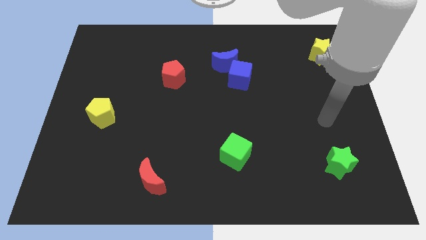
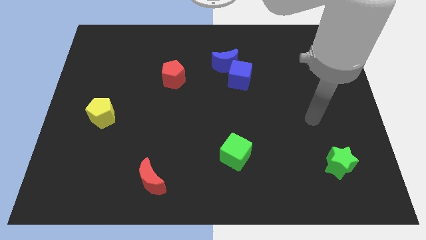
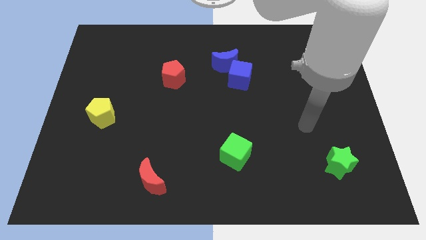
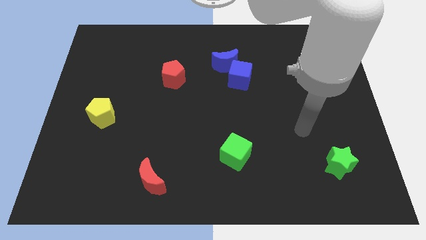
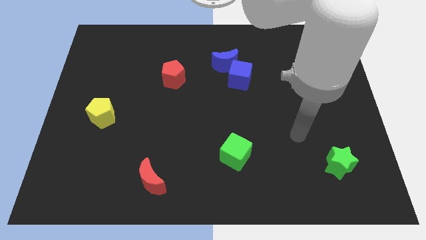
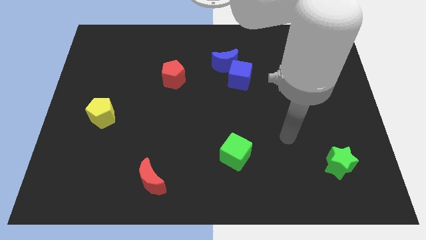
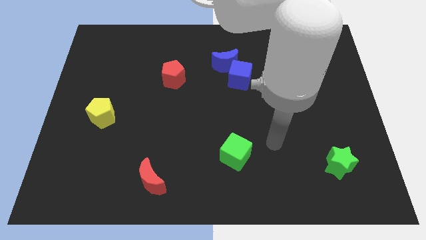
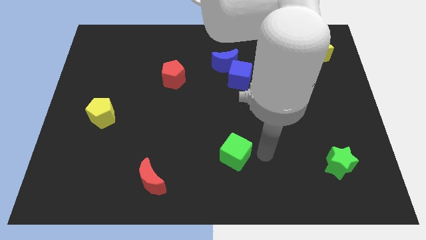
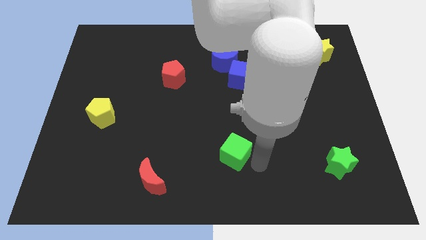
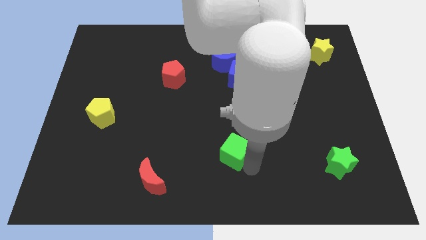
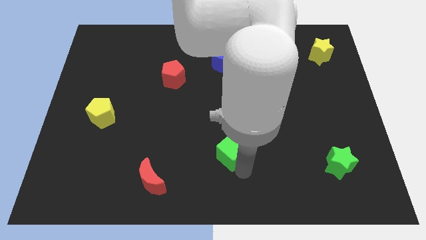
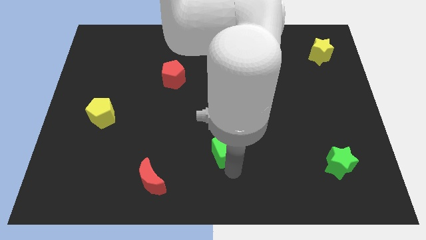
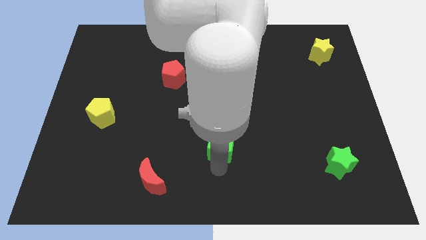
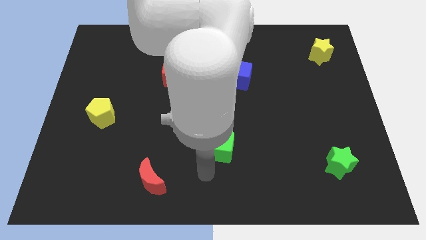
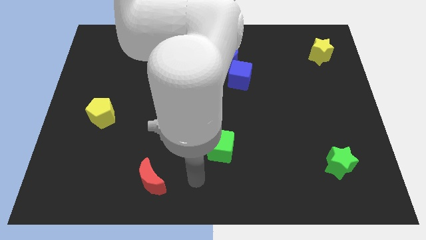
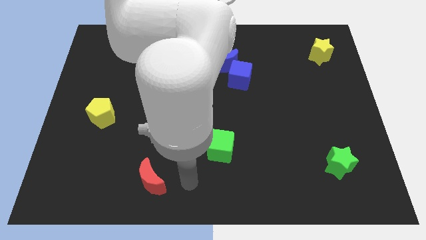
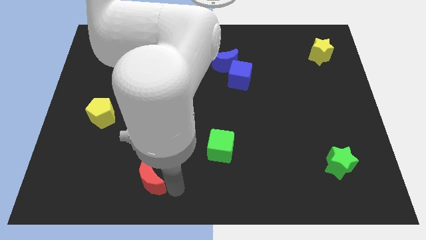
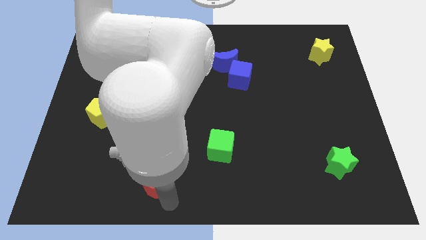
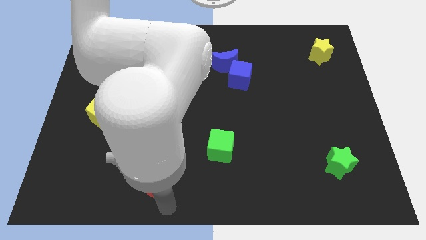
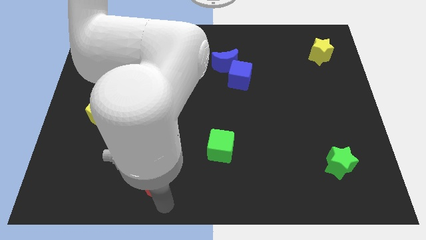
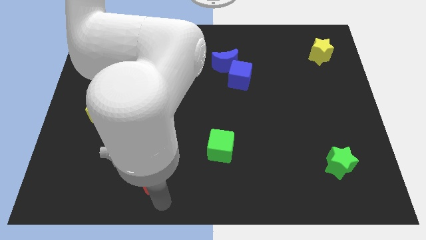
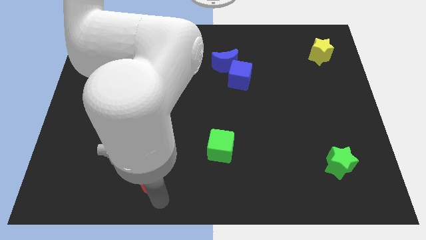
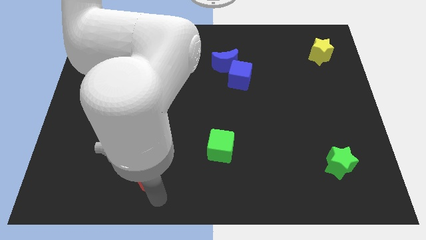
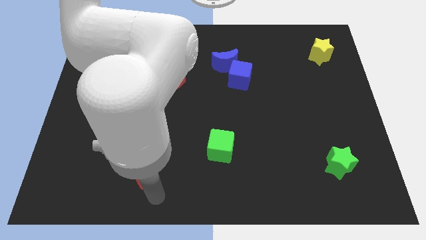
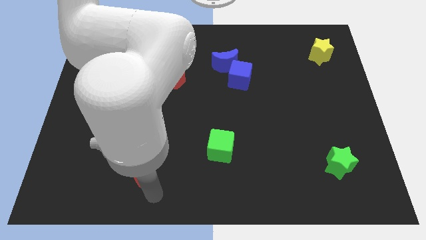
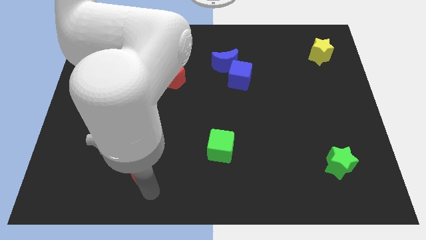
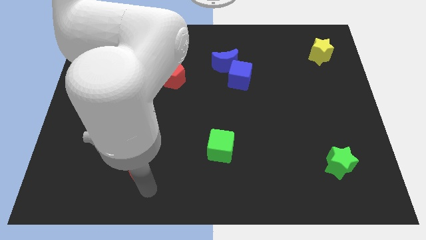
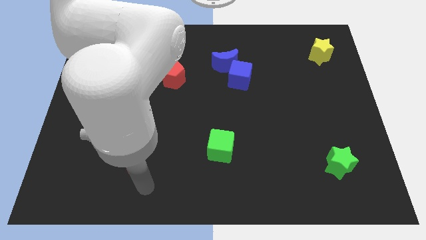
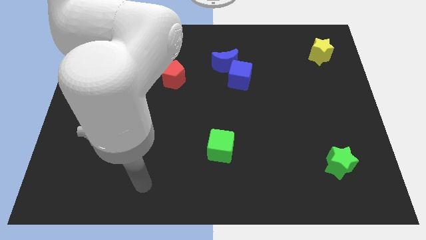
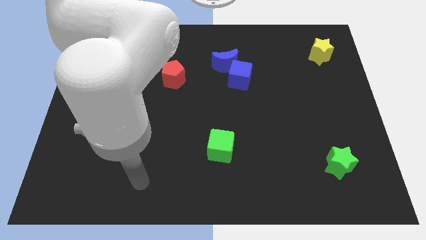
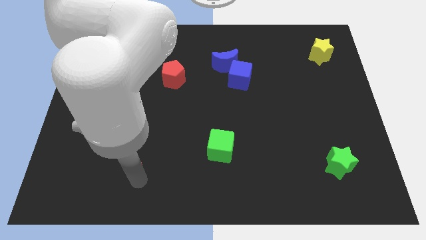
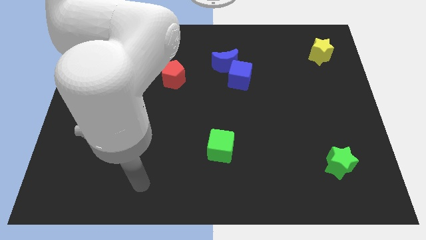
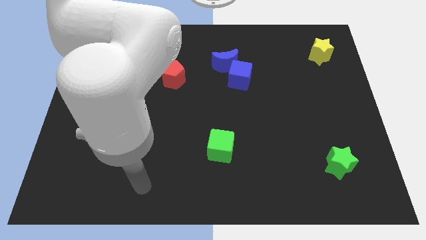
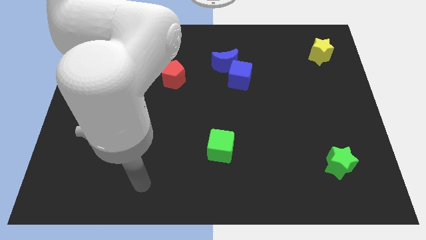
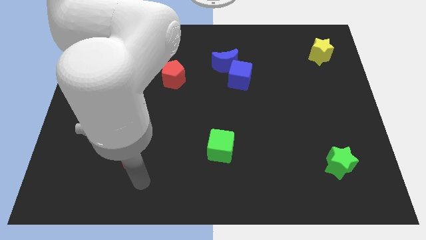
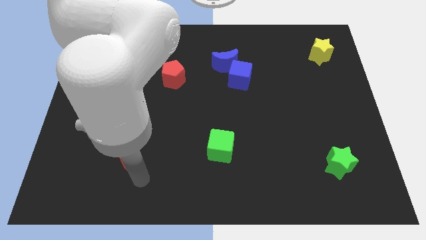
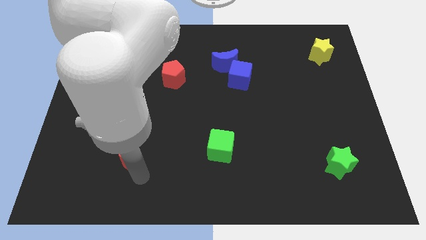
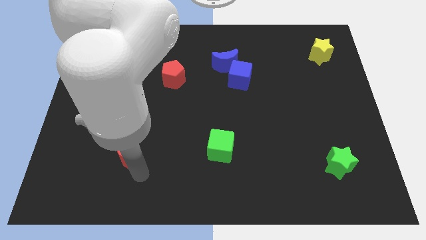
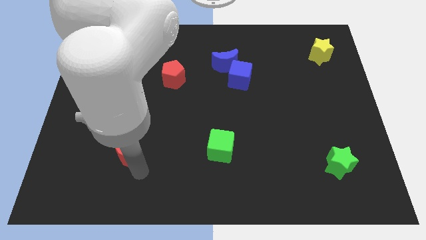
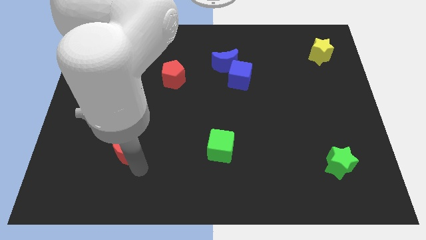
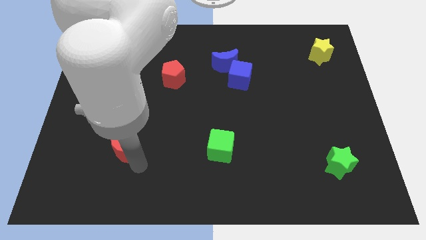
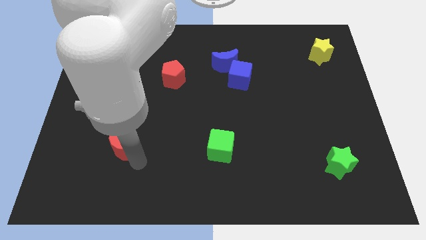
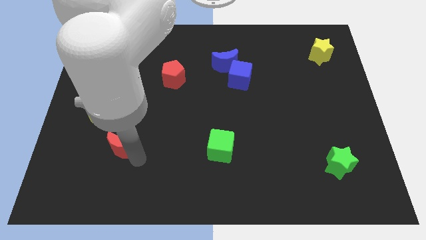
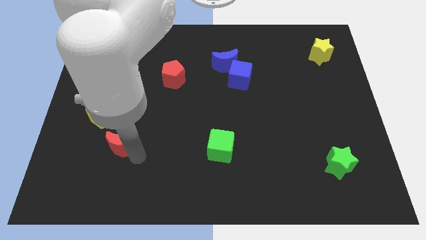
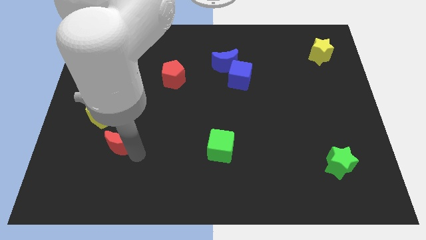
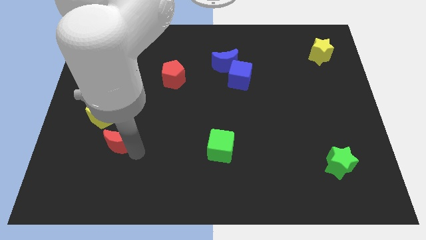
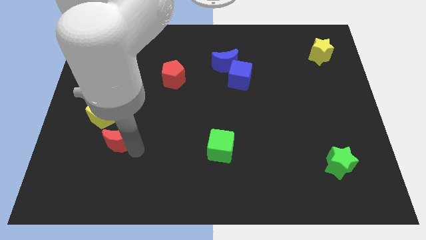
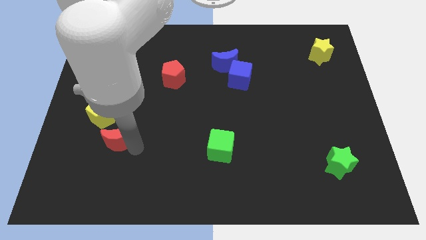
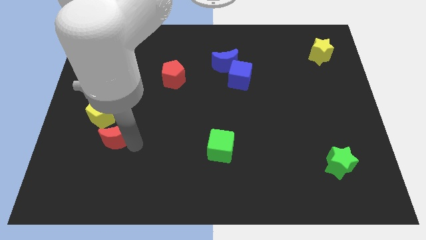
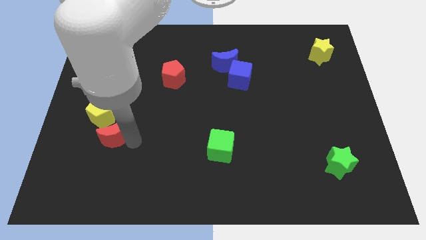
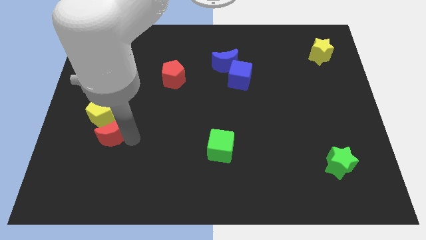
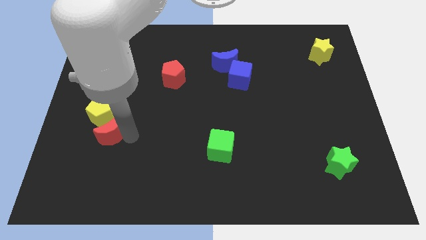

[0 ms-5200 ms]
move the red moon towards the yellow pentagon

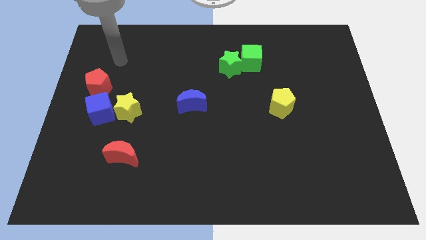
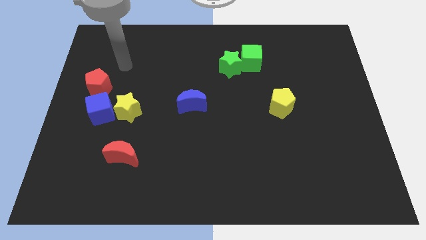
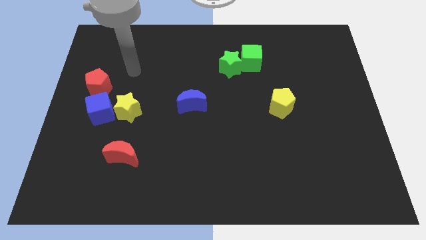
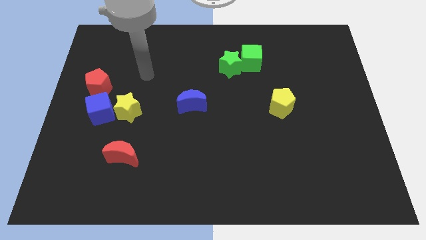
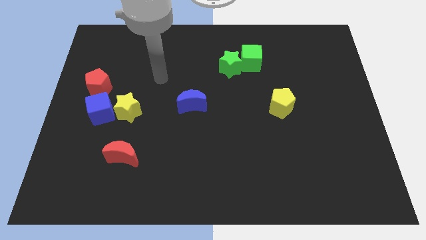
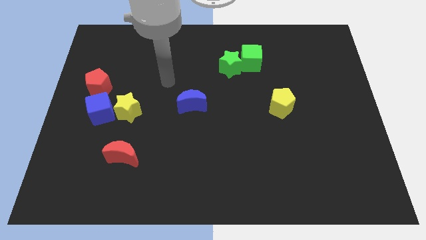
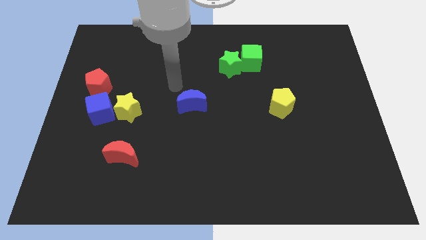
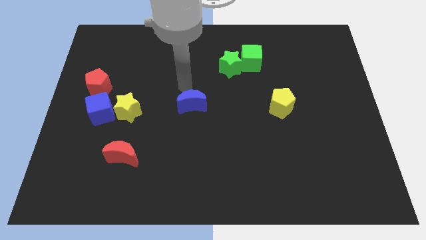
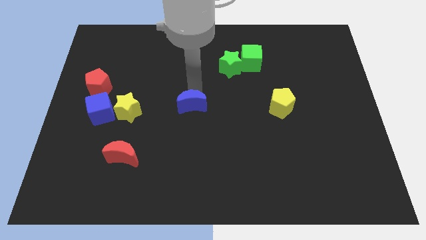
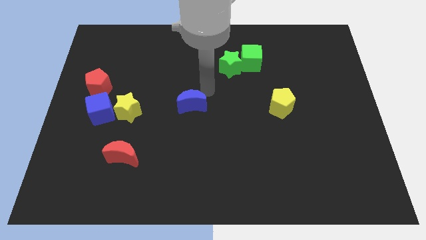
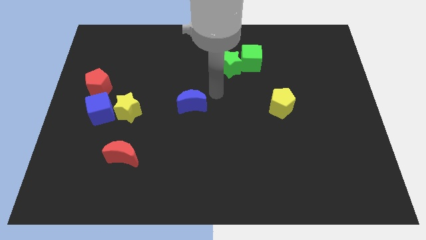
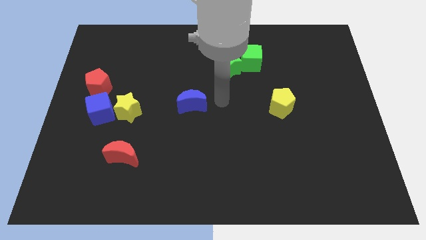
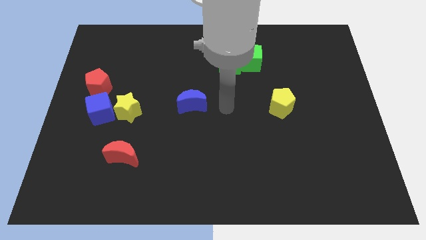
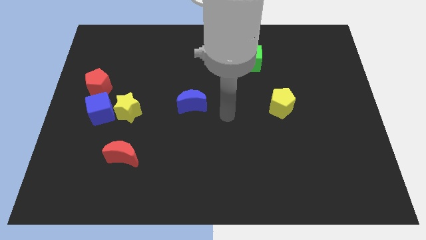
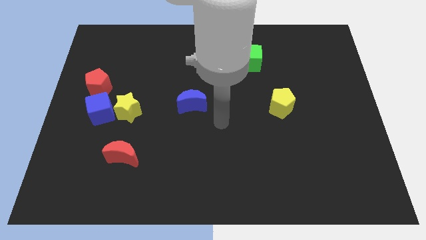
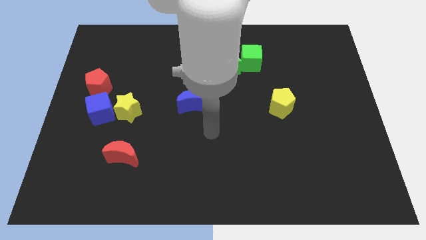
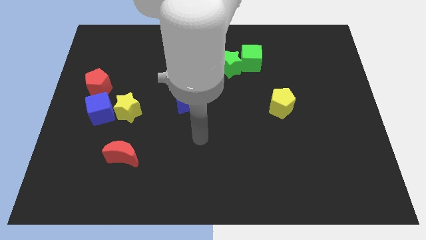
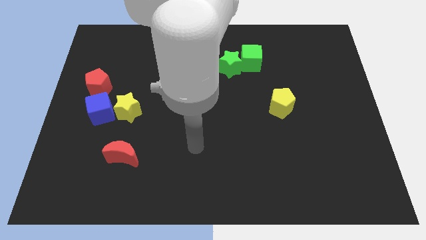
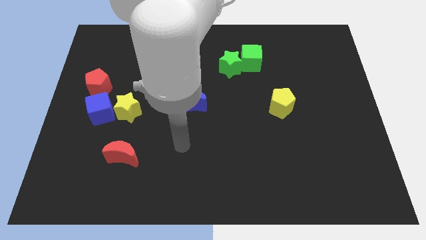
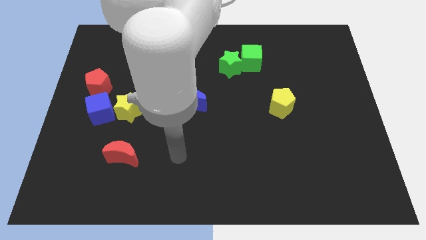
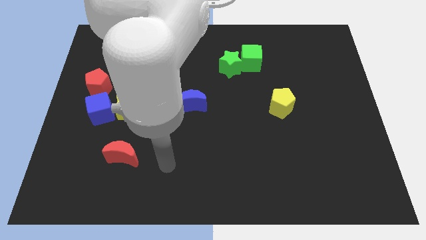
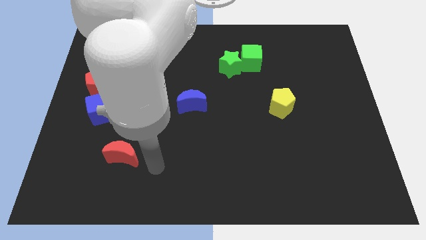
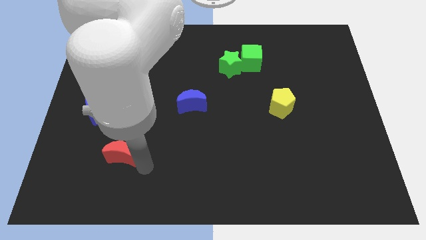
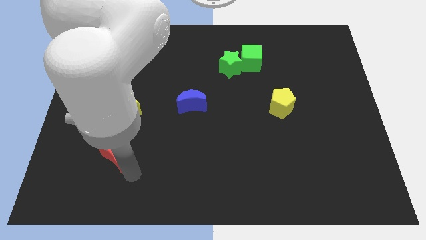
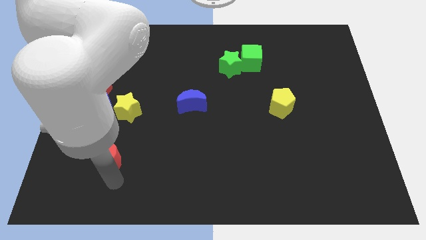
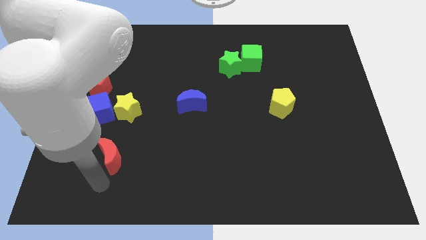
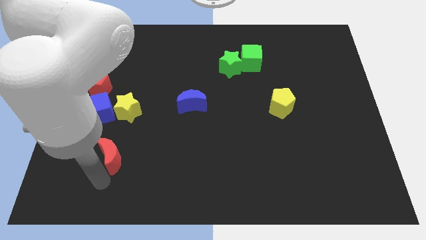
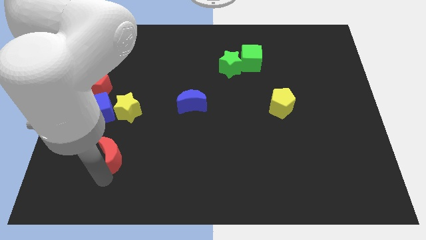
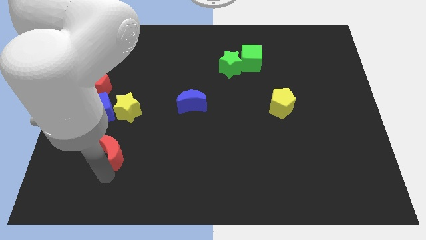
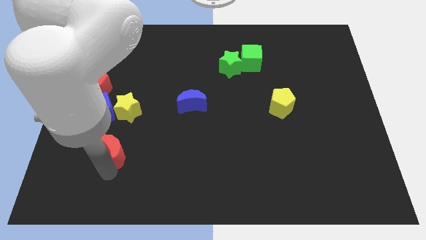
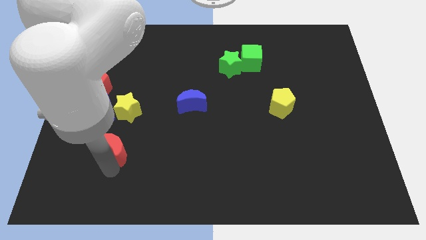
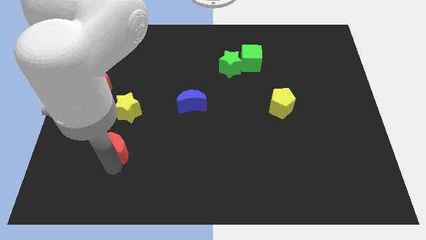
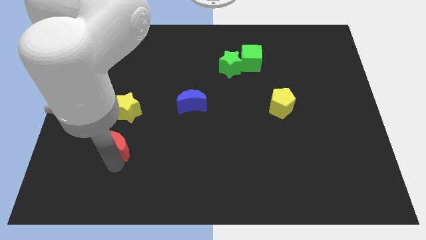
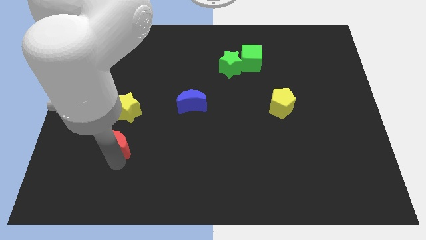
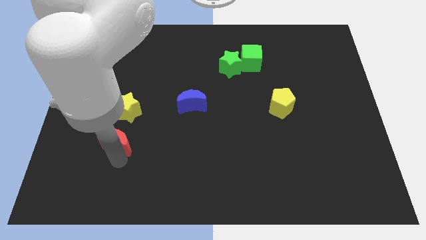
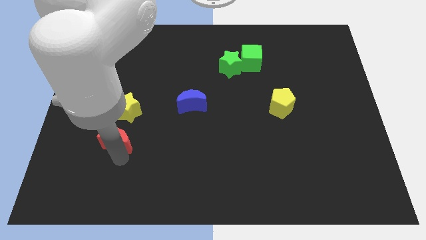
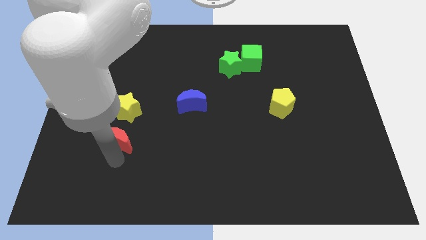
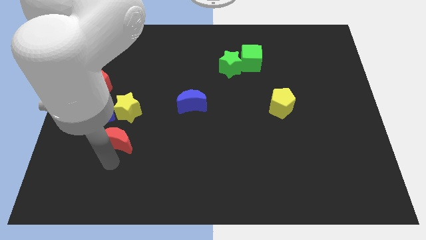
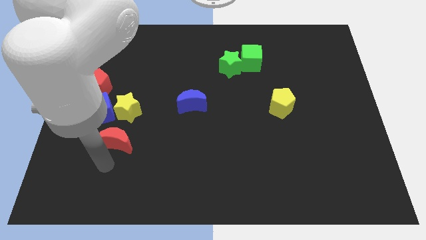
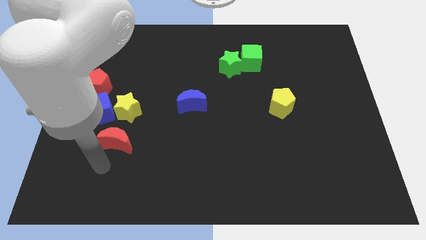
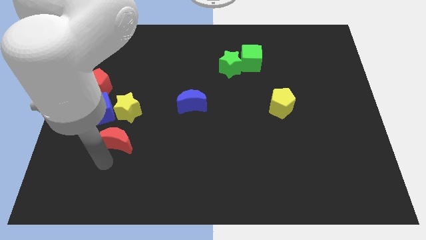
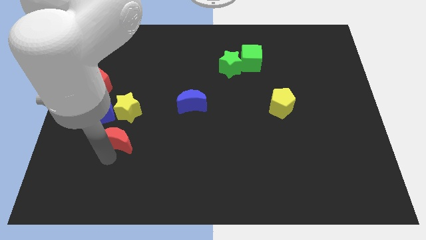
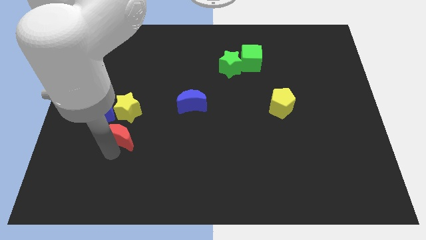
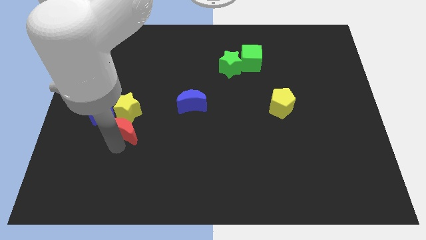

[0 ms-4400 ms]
slide the red moon next to the yellow star
